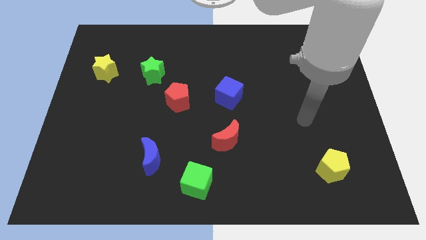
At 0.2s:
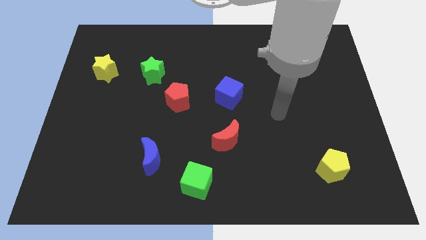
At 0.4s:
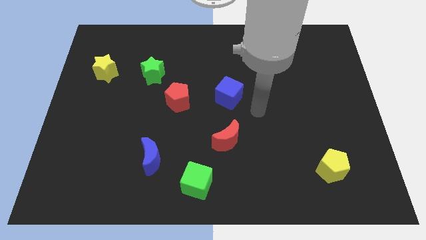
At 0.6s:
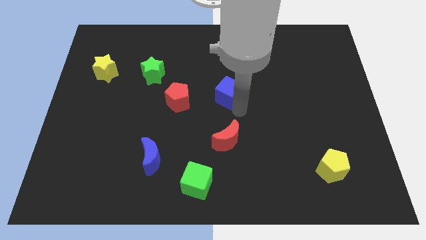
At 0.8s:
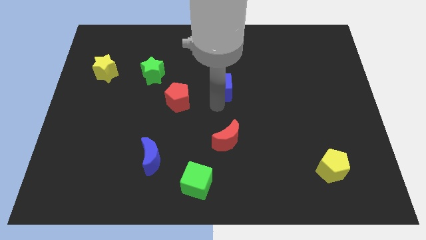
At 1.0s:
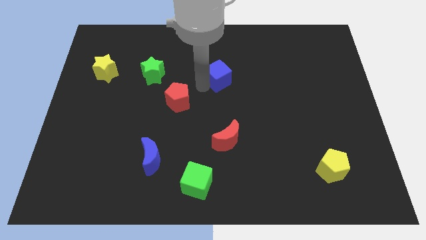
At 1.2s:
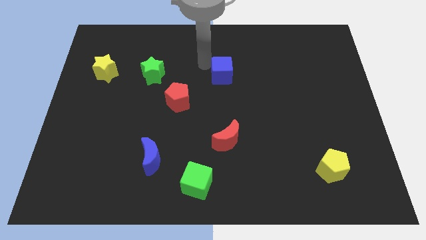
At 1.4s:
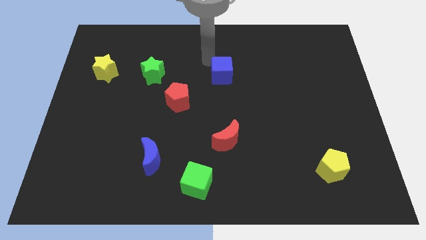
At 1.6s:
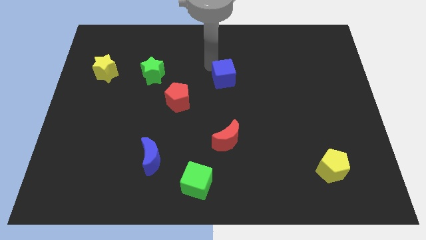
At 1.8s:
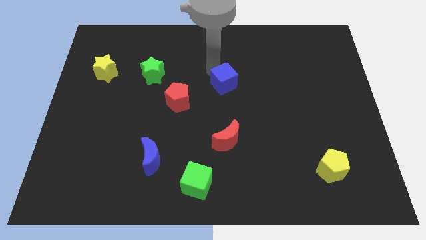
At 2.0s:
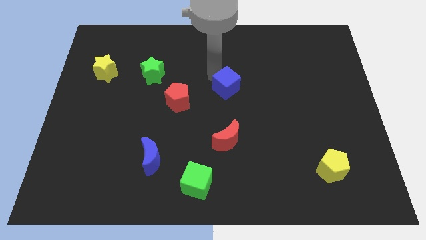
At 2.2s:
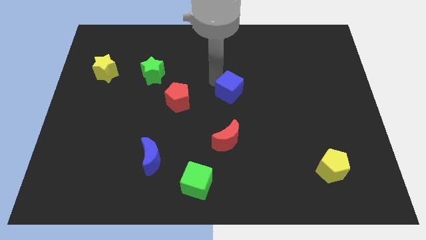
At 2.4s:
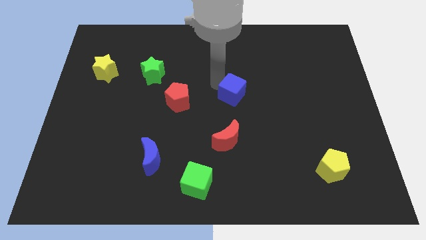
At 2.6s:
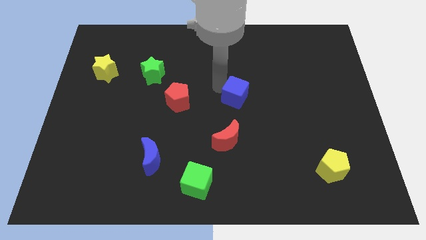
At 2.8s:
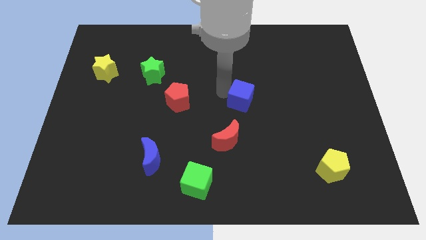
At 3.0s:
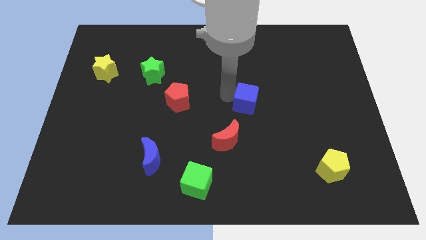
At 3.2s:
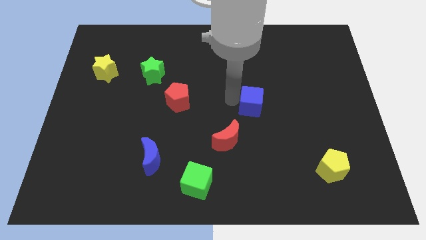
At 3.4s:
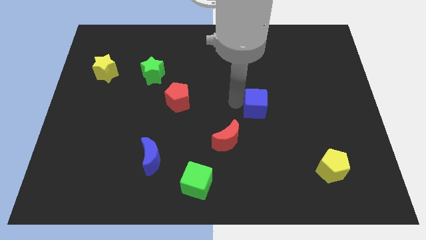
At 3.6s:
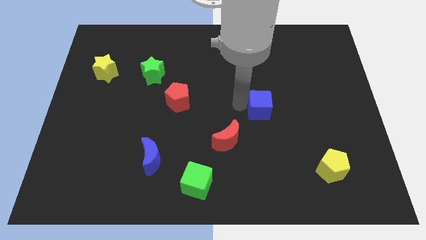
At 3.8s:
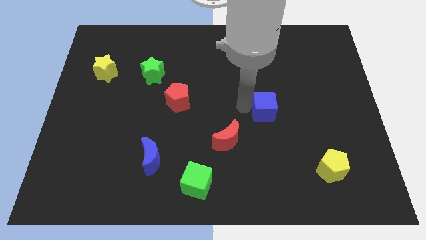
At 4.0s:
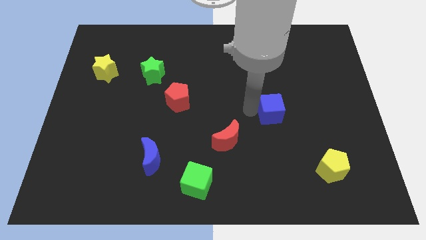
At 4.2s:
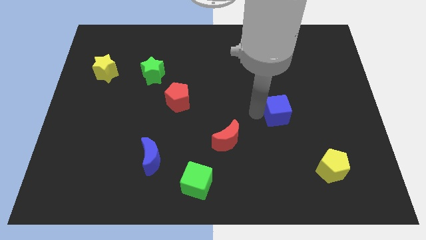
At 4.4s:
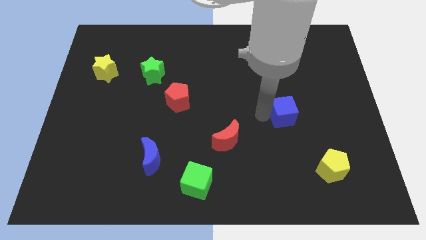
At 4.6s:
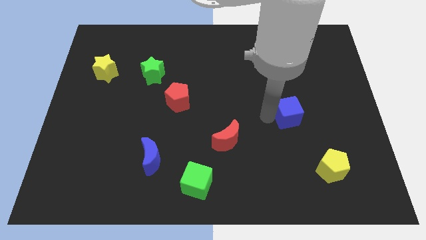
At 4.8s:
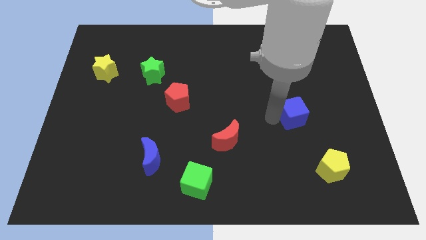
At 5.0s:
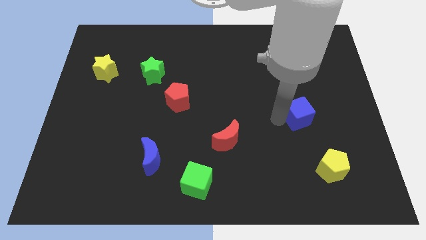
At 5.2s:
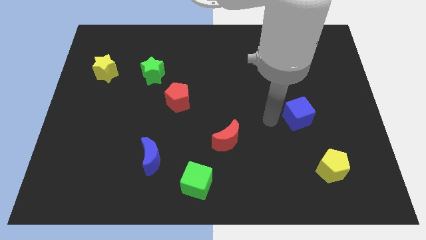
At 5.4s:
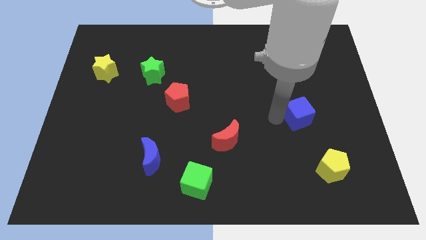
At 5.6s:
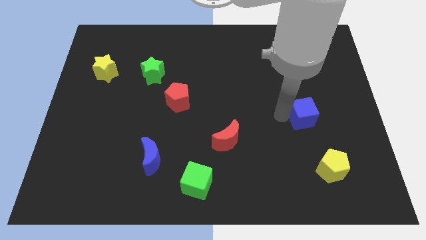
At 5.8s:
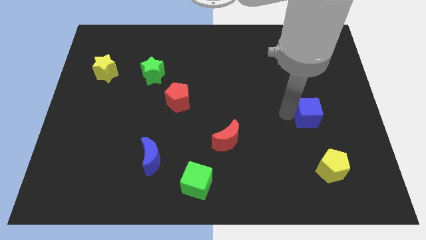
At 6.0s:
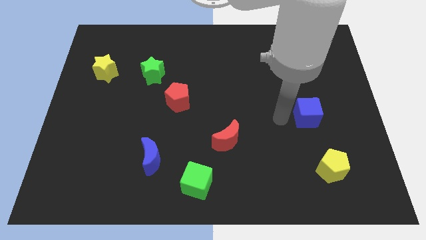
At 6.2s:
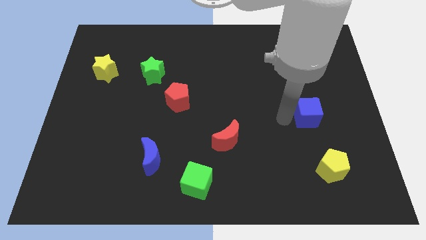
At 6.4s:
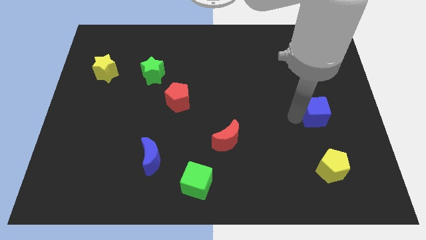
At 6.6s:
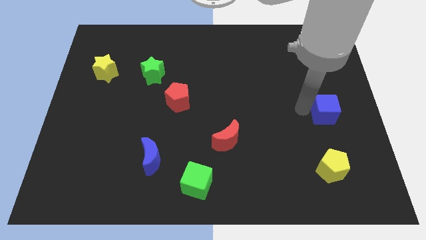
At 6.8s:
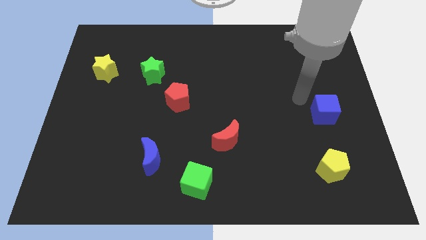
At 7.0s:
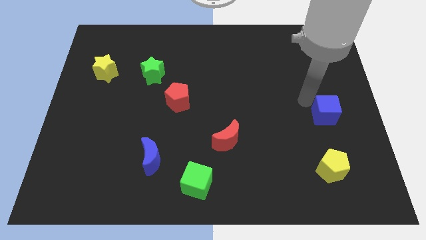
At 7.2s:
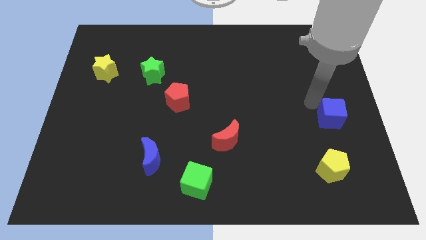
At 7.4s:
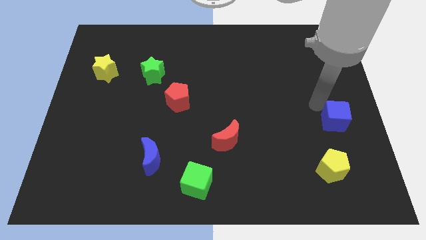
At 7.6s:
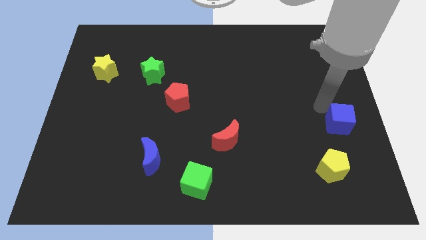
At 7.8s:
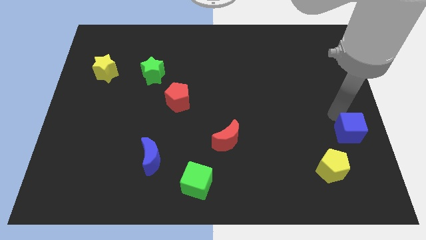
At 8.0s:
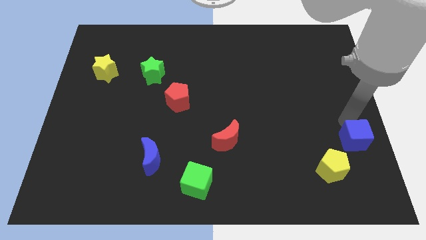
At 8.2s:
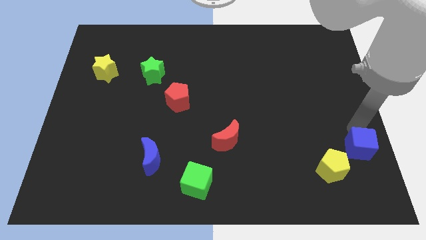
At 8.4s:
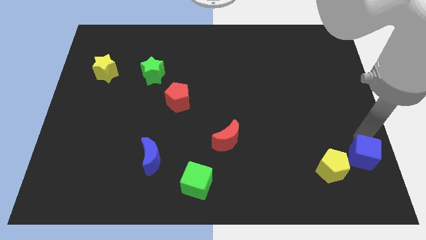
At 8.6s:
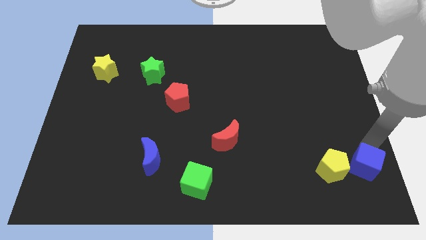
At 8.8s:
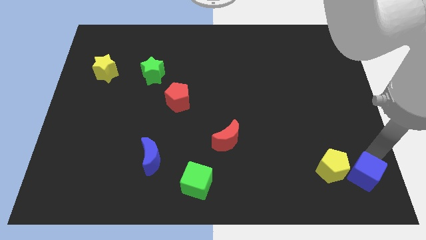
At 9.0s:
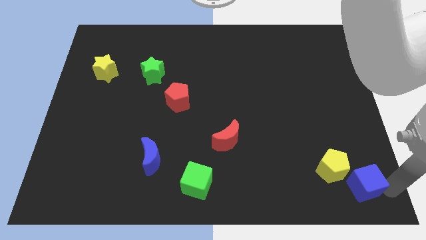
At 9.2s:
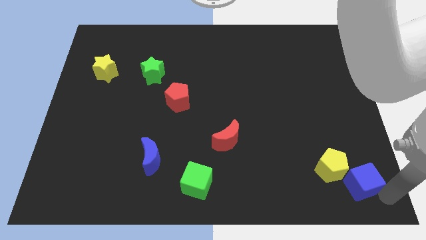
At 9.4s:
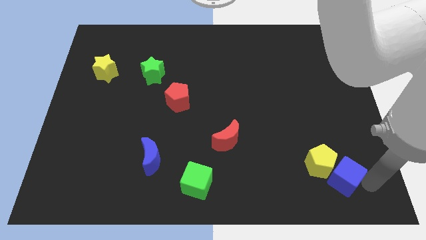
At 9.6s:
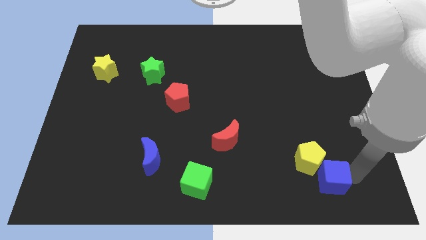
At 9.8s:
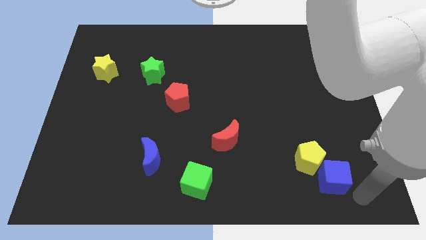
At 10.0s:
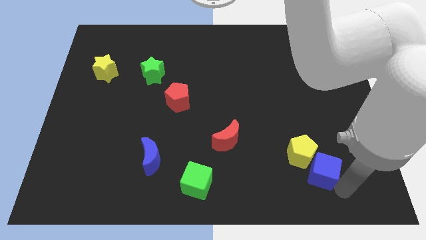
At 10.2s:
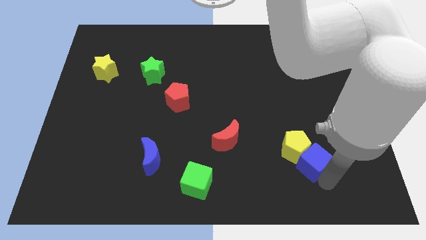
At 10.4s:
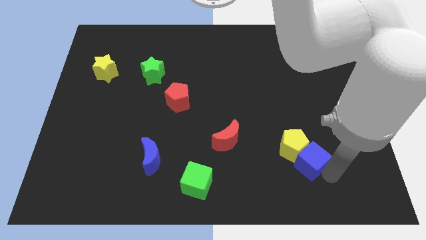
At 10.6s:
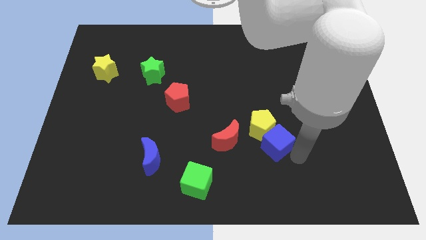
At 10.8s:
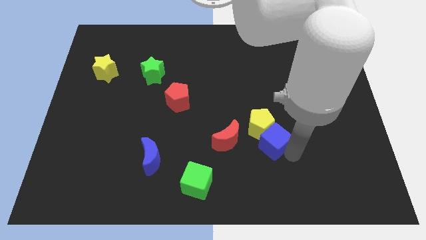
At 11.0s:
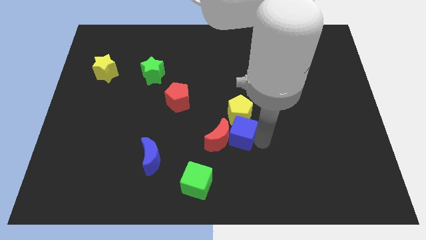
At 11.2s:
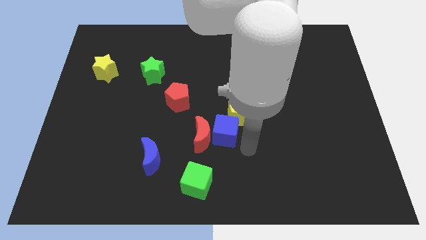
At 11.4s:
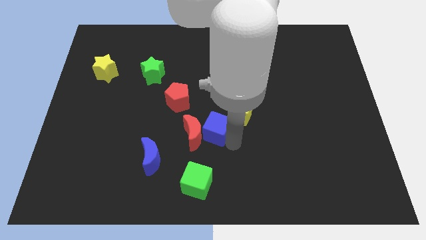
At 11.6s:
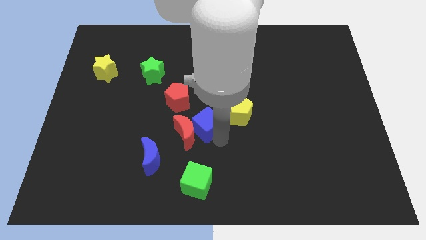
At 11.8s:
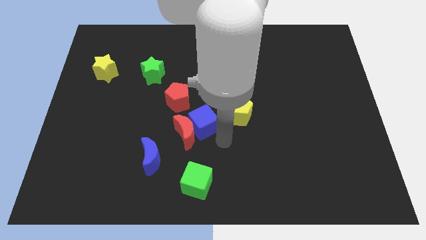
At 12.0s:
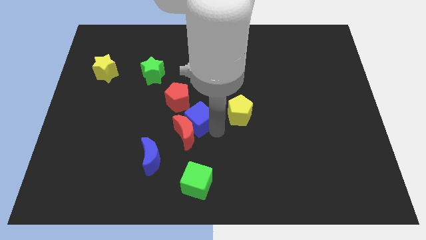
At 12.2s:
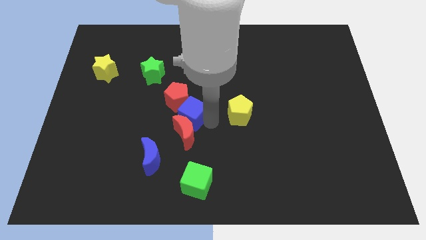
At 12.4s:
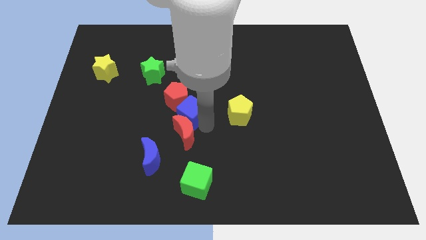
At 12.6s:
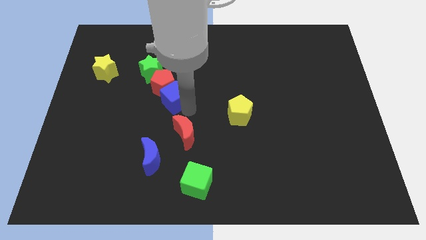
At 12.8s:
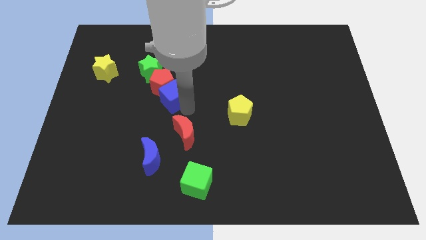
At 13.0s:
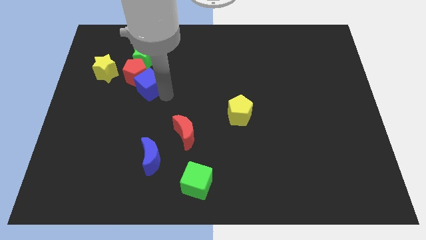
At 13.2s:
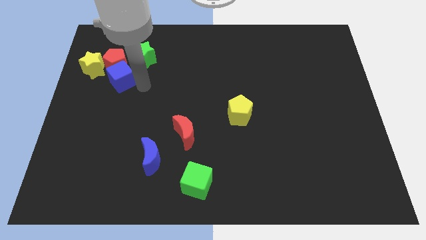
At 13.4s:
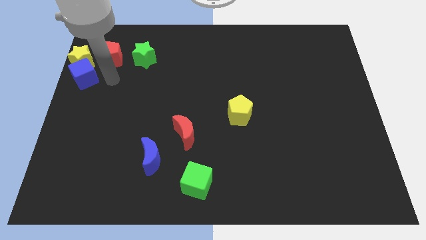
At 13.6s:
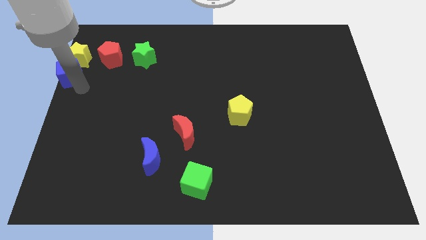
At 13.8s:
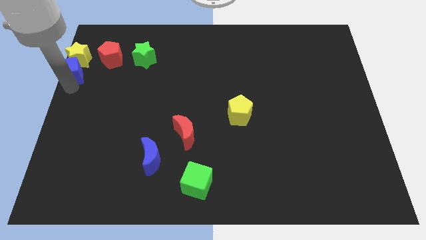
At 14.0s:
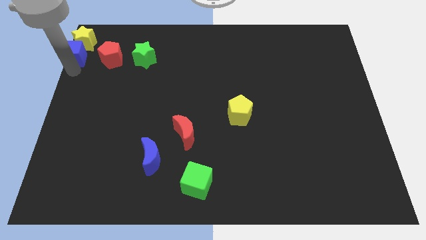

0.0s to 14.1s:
slide the blue cube to the upper left corner
